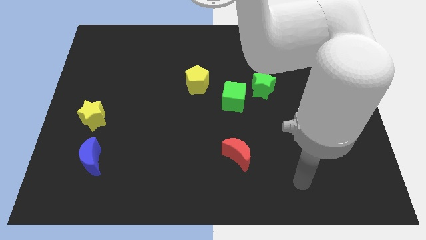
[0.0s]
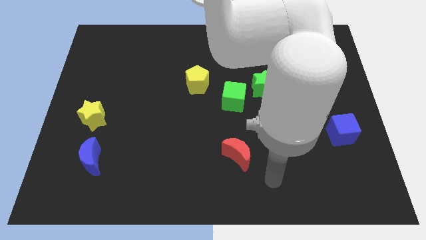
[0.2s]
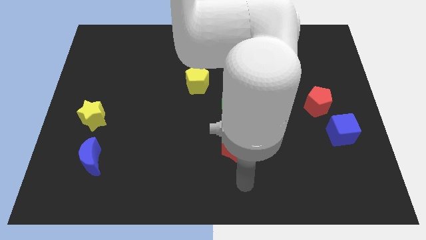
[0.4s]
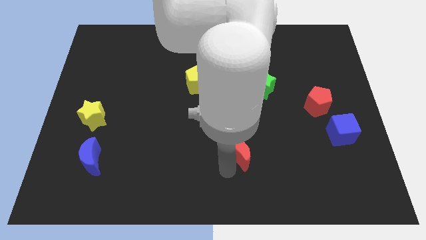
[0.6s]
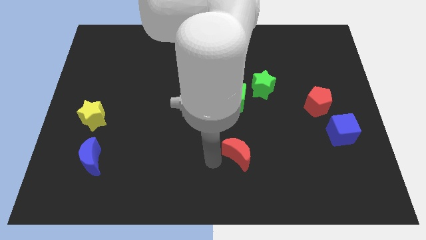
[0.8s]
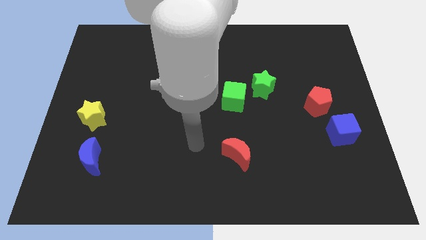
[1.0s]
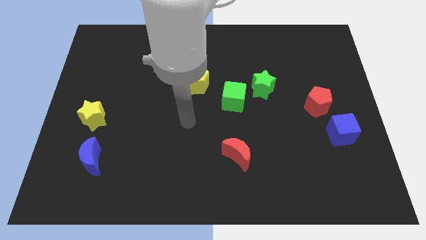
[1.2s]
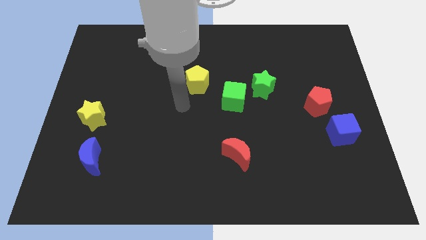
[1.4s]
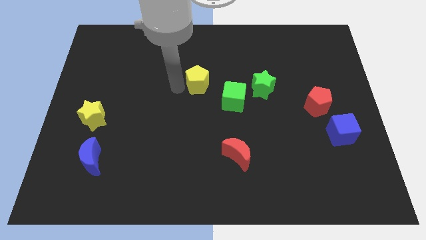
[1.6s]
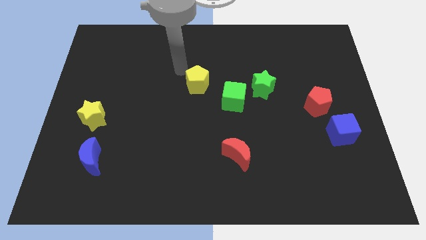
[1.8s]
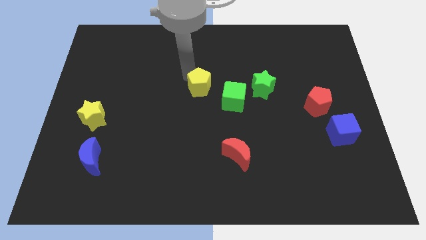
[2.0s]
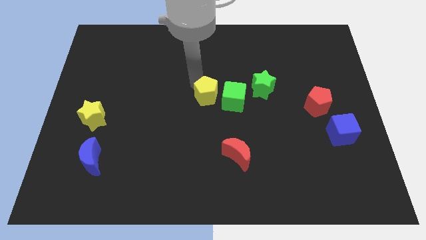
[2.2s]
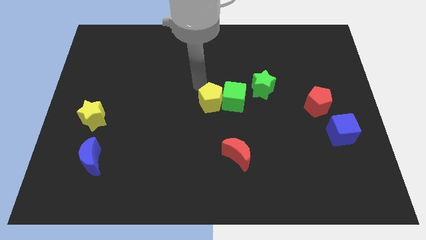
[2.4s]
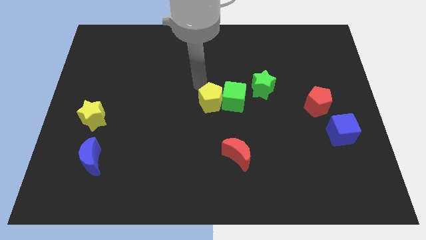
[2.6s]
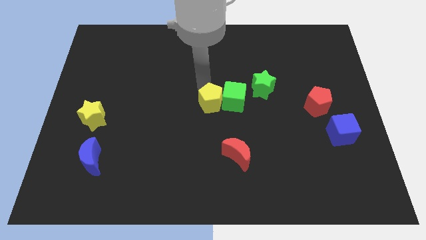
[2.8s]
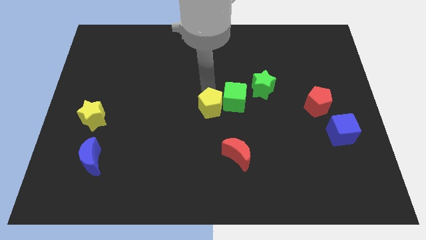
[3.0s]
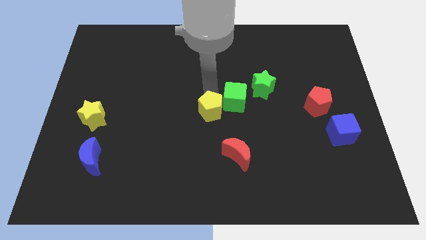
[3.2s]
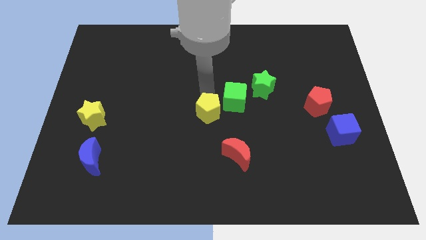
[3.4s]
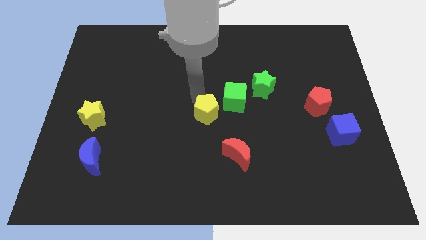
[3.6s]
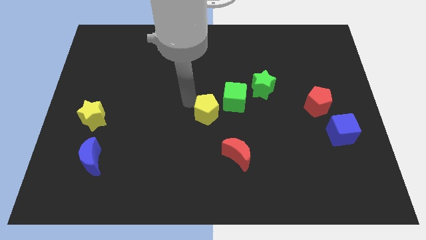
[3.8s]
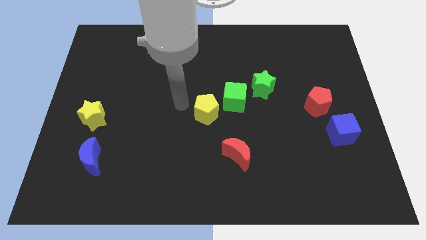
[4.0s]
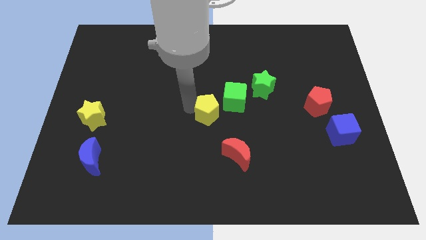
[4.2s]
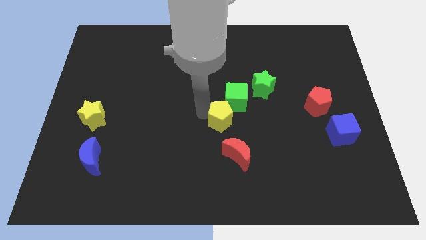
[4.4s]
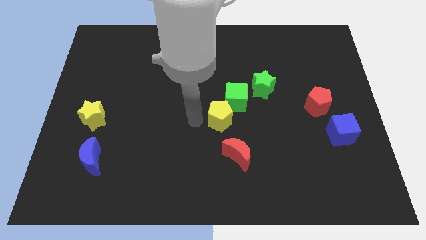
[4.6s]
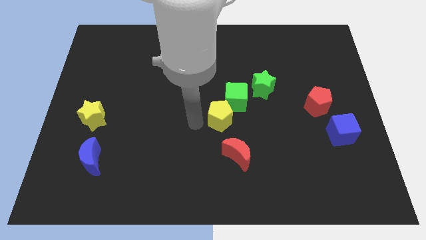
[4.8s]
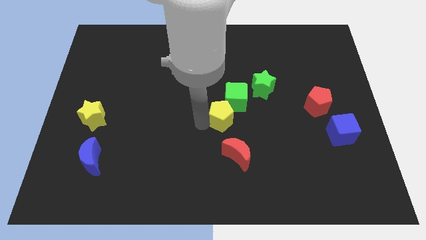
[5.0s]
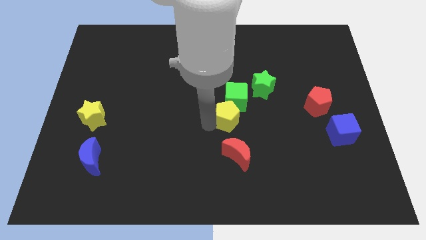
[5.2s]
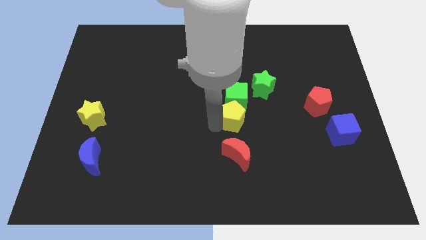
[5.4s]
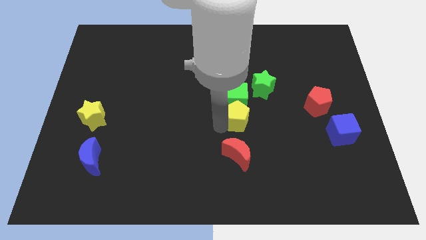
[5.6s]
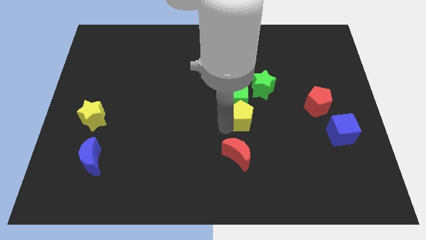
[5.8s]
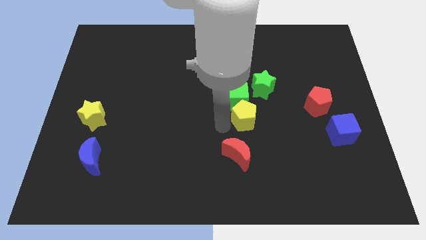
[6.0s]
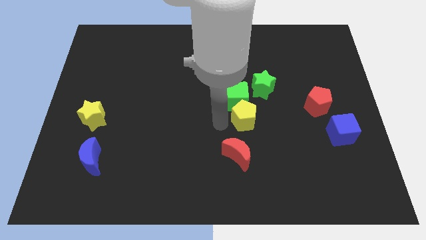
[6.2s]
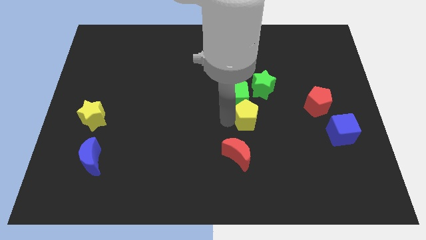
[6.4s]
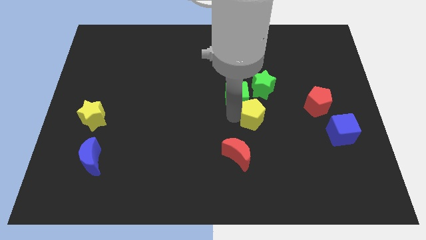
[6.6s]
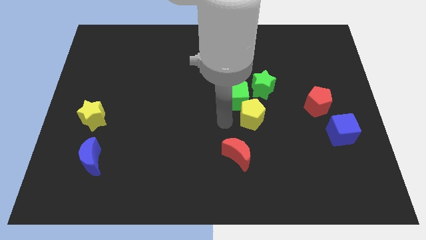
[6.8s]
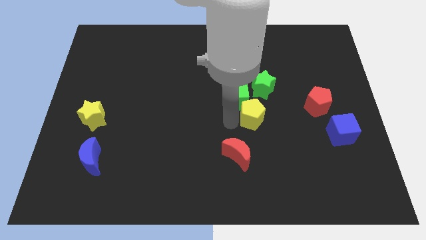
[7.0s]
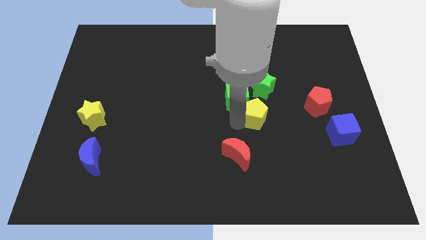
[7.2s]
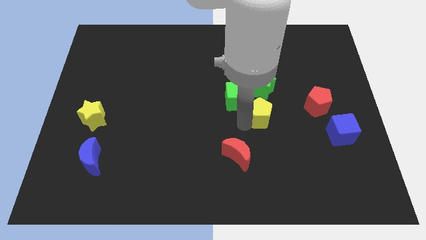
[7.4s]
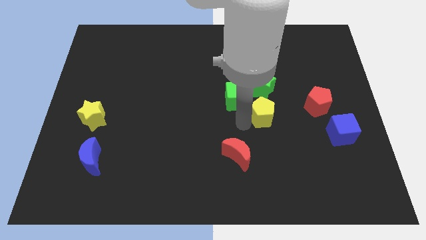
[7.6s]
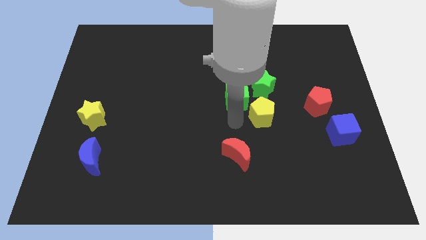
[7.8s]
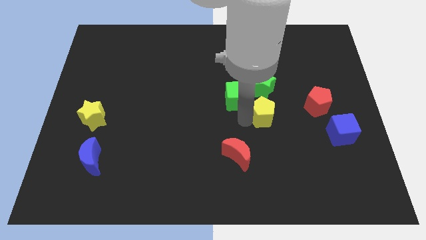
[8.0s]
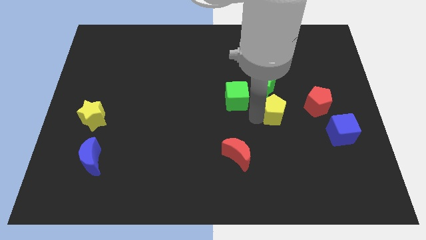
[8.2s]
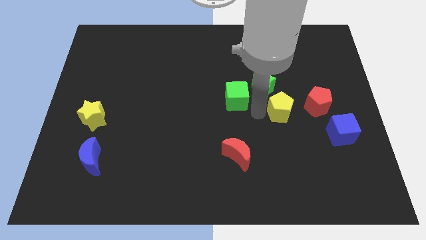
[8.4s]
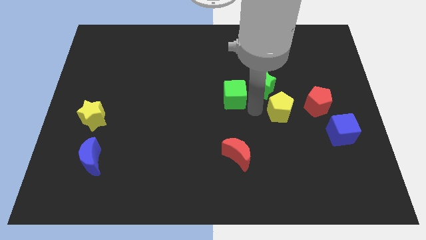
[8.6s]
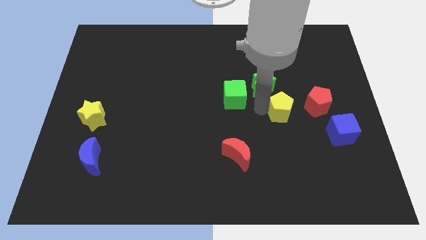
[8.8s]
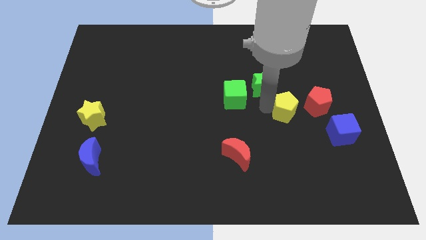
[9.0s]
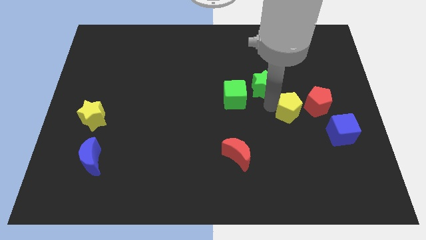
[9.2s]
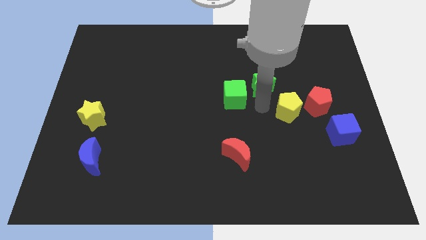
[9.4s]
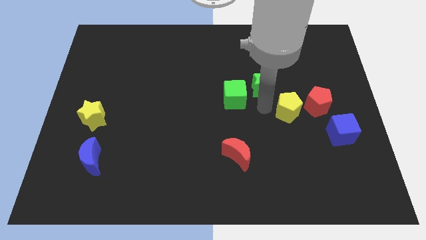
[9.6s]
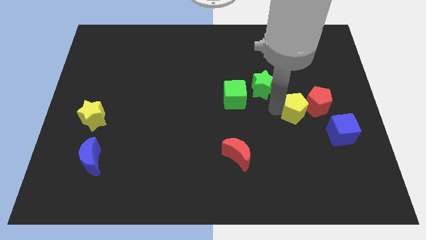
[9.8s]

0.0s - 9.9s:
put the yellow pentagon to the red pentagon

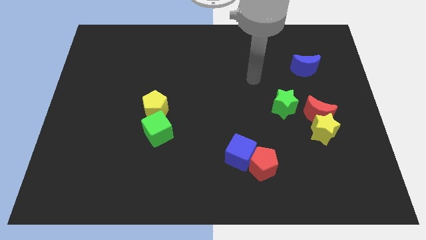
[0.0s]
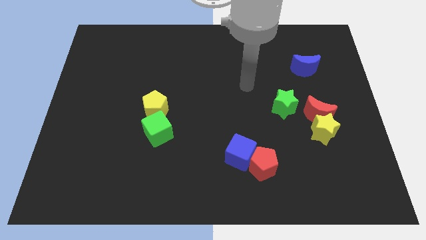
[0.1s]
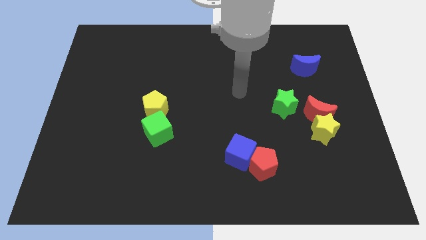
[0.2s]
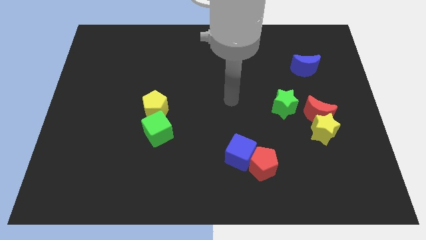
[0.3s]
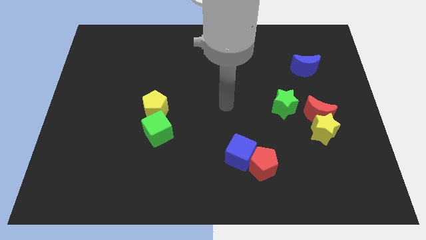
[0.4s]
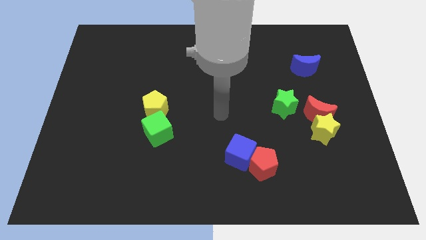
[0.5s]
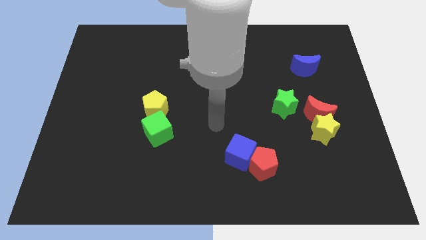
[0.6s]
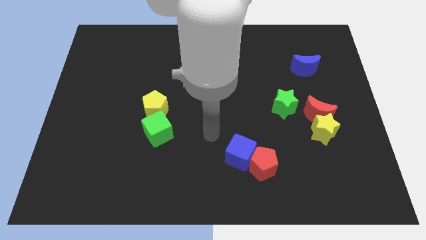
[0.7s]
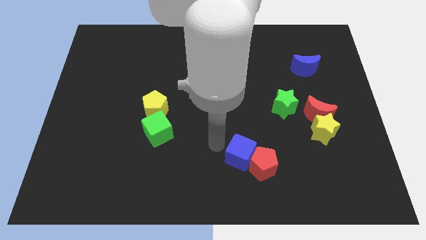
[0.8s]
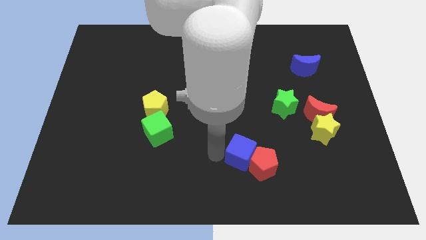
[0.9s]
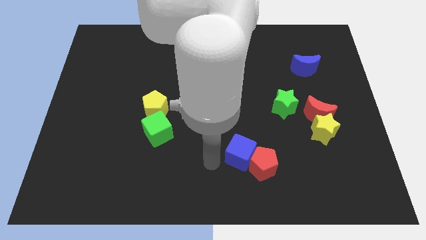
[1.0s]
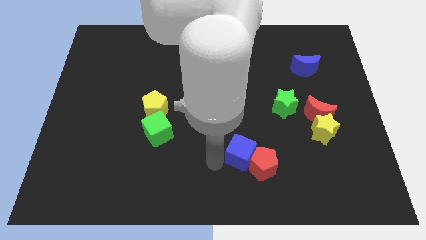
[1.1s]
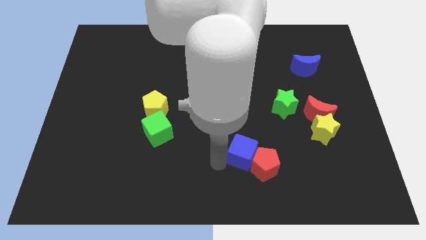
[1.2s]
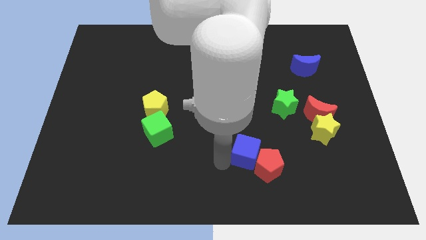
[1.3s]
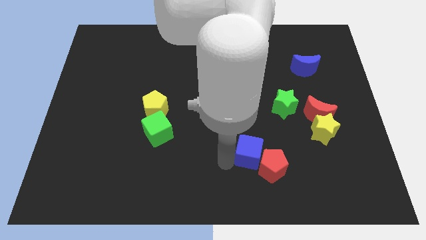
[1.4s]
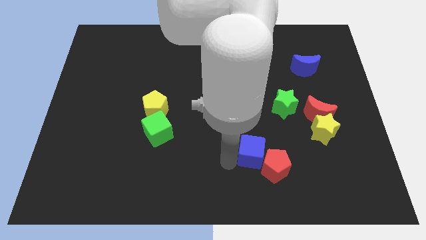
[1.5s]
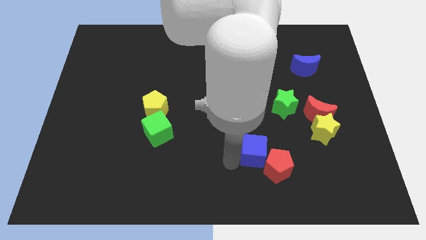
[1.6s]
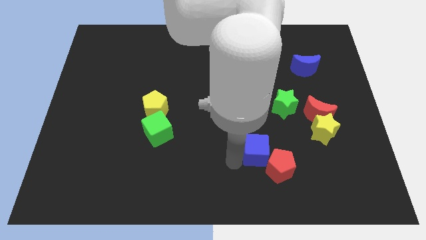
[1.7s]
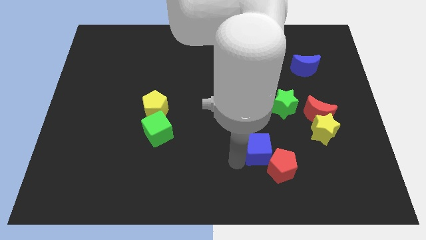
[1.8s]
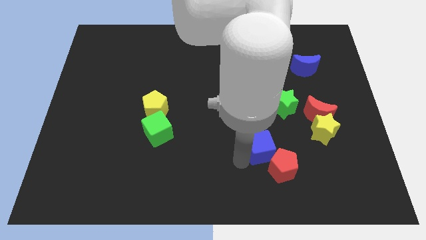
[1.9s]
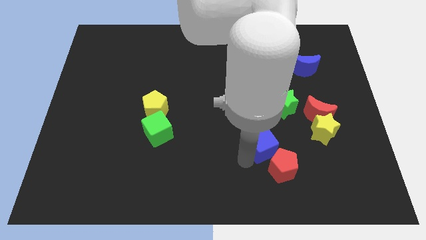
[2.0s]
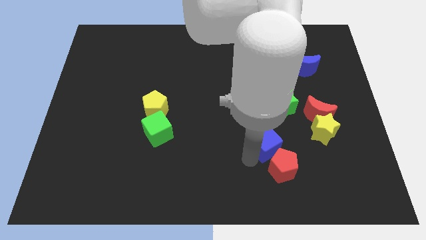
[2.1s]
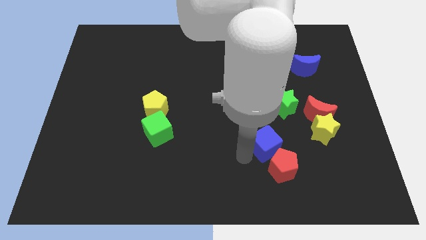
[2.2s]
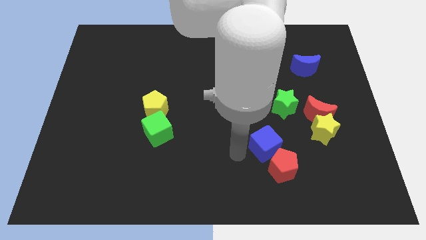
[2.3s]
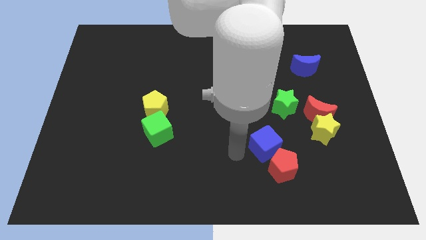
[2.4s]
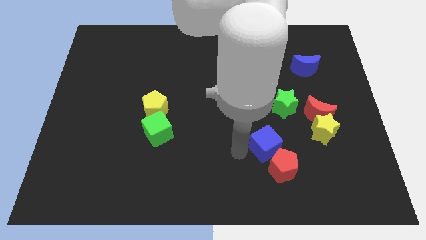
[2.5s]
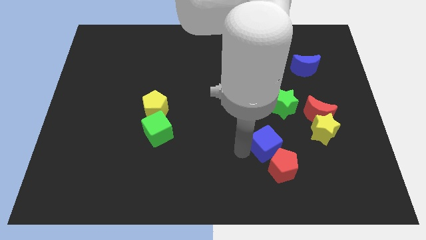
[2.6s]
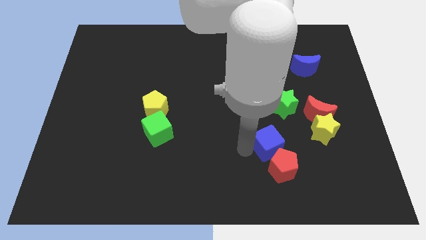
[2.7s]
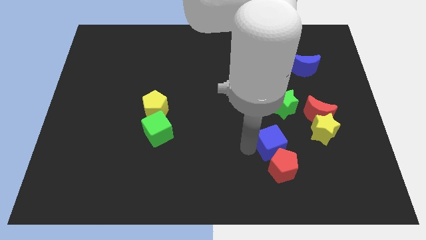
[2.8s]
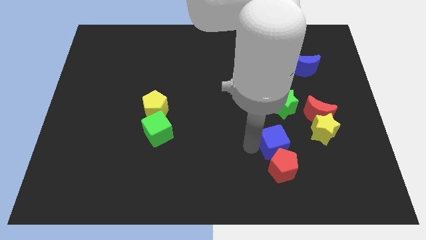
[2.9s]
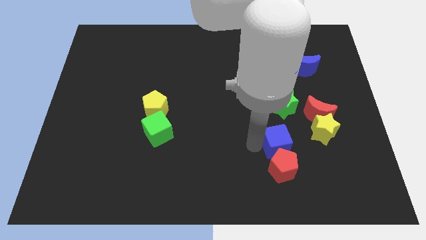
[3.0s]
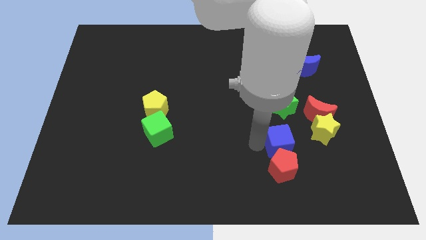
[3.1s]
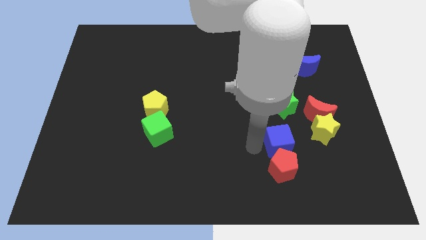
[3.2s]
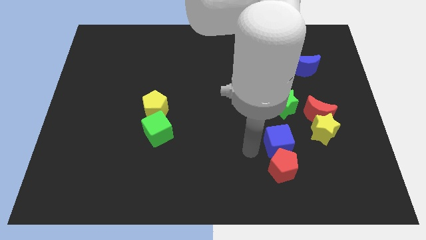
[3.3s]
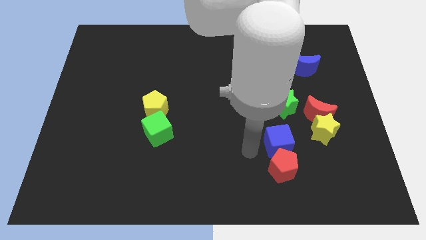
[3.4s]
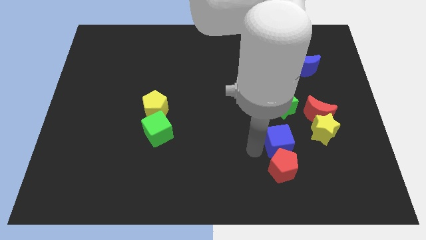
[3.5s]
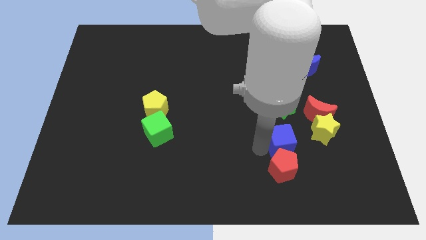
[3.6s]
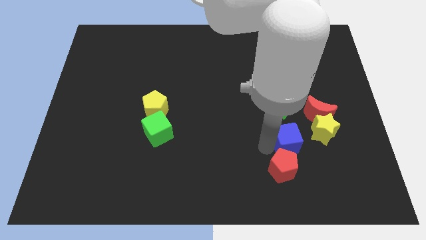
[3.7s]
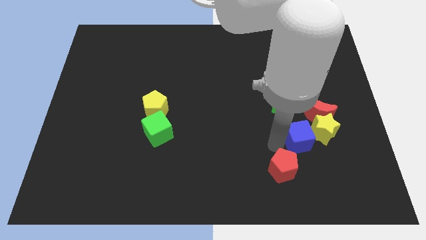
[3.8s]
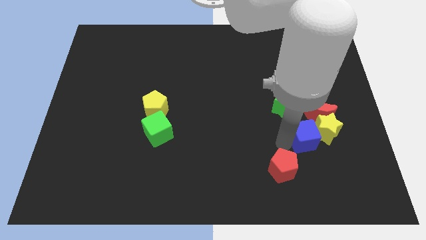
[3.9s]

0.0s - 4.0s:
move the blue cube next to the yellow star
